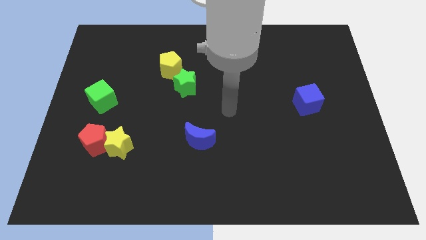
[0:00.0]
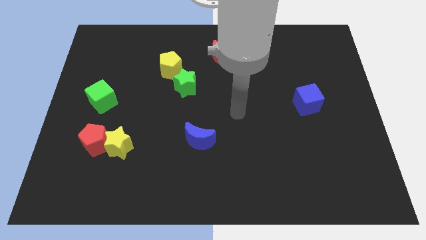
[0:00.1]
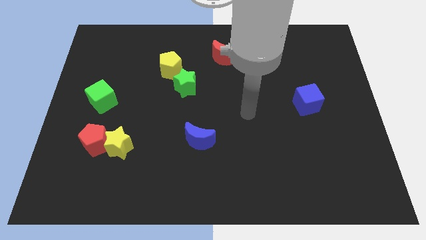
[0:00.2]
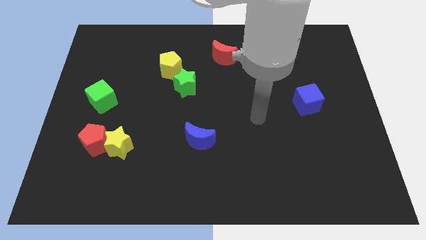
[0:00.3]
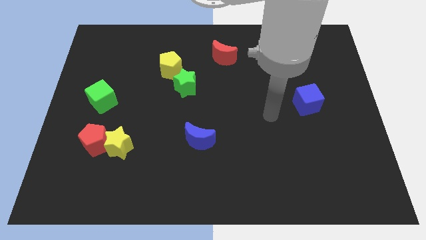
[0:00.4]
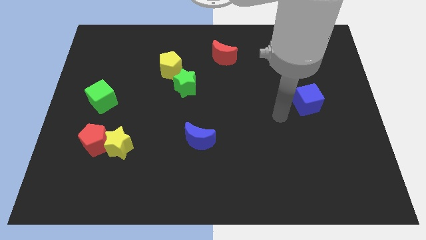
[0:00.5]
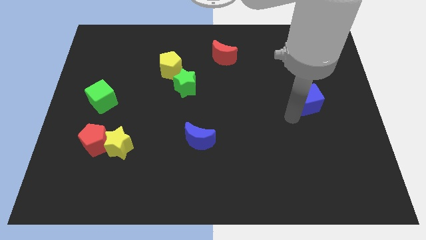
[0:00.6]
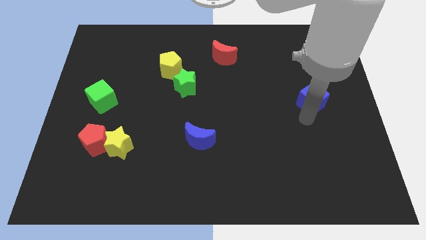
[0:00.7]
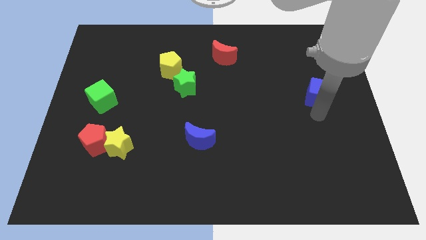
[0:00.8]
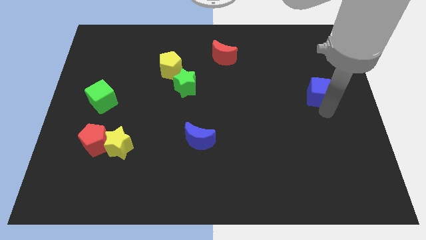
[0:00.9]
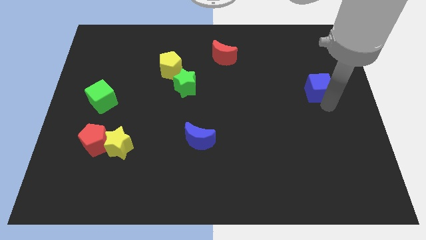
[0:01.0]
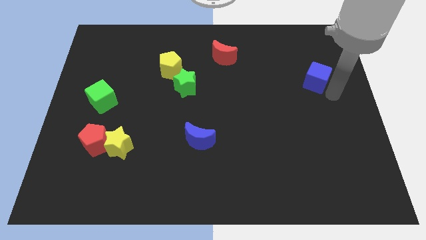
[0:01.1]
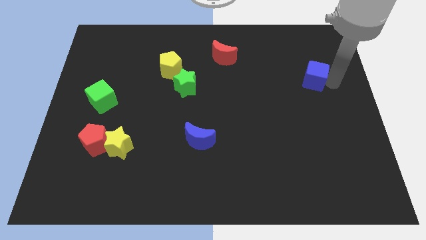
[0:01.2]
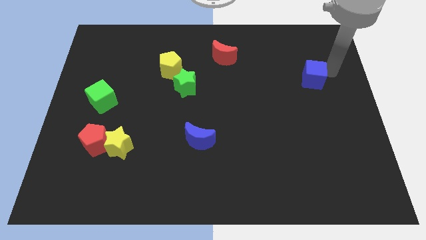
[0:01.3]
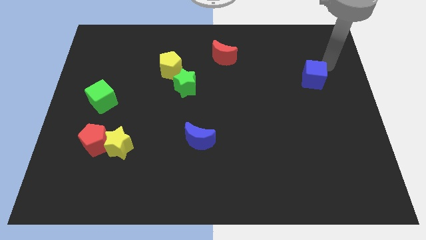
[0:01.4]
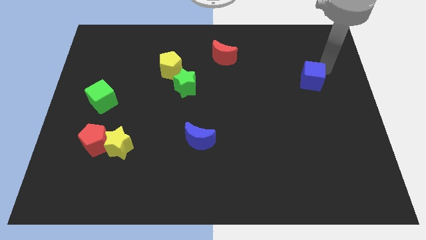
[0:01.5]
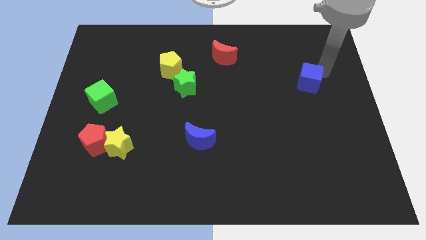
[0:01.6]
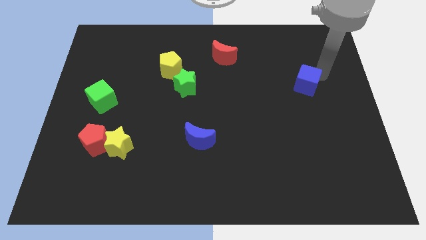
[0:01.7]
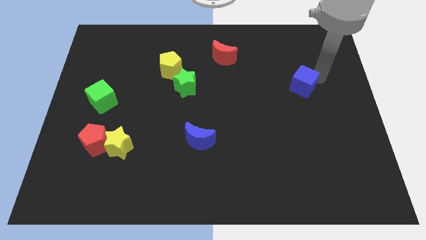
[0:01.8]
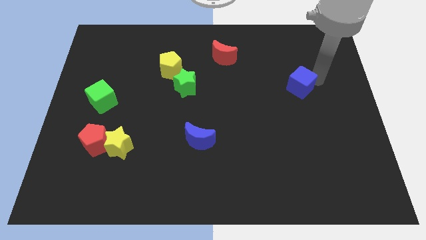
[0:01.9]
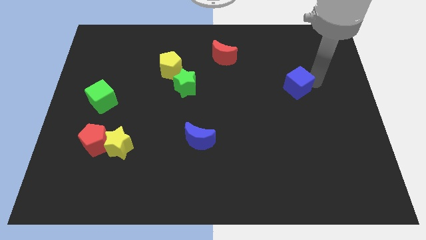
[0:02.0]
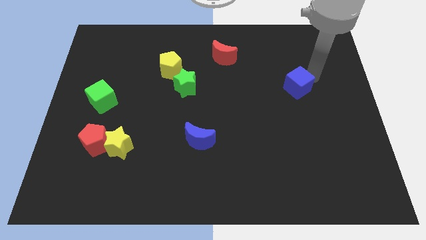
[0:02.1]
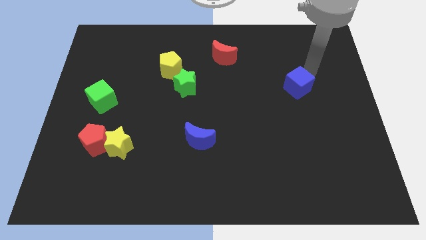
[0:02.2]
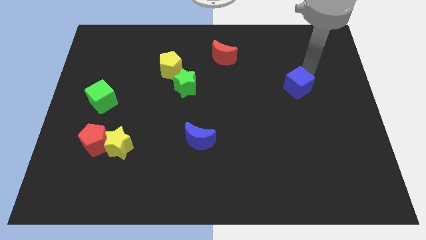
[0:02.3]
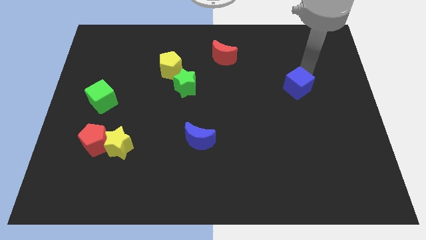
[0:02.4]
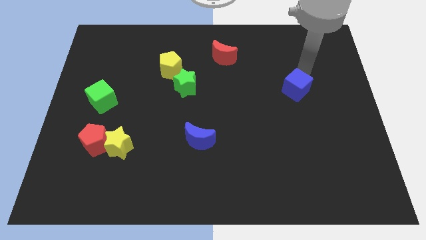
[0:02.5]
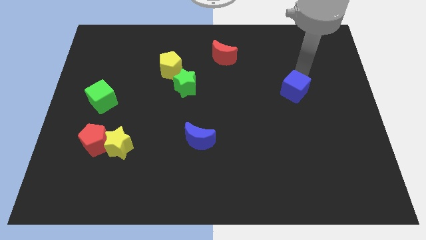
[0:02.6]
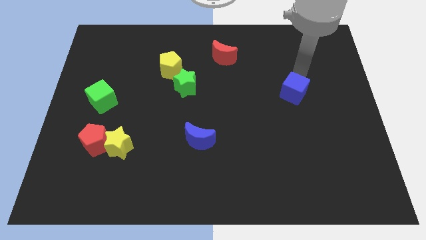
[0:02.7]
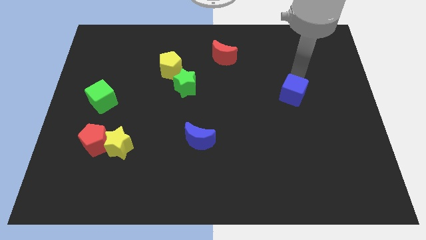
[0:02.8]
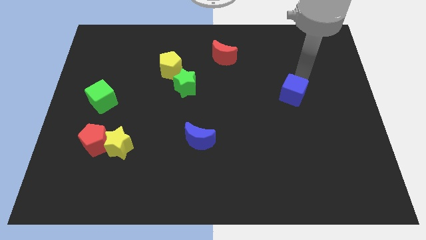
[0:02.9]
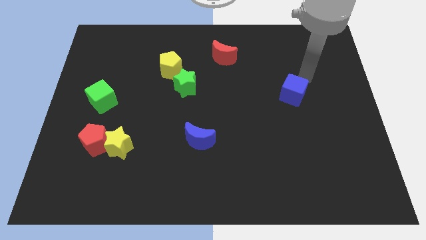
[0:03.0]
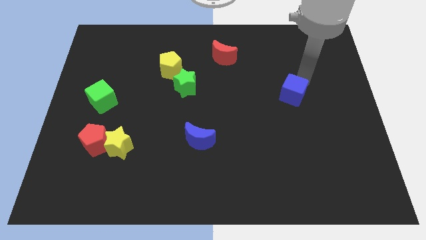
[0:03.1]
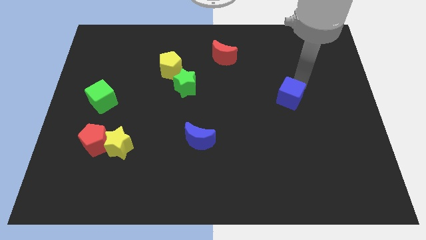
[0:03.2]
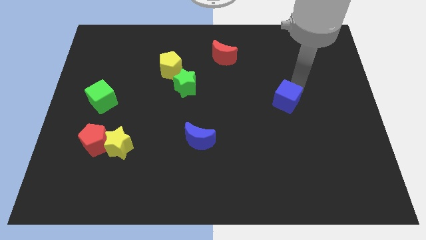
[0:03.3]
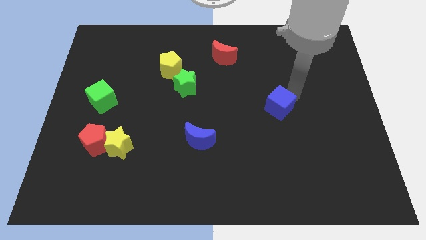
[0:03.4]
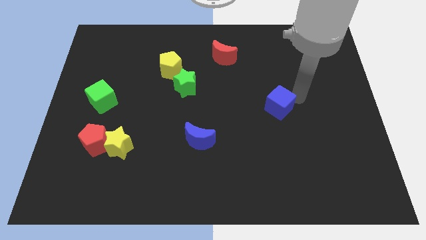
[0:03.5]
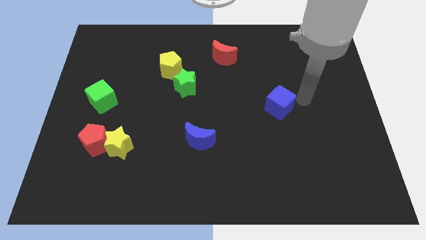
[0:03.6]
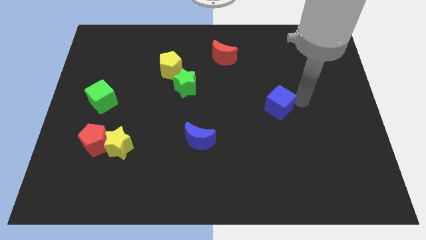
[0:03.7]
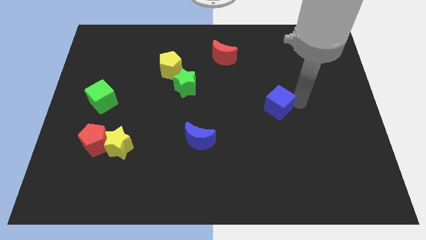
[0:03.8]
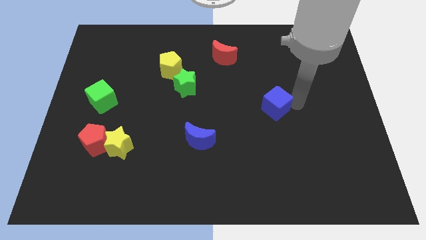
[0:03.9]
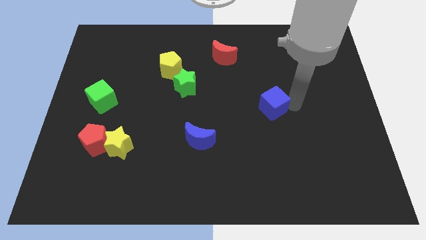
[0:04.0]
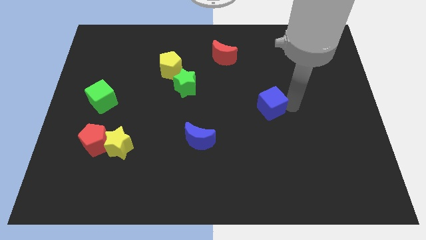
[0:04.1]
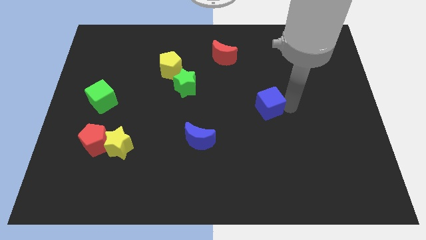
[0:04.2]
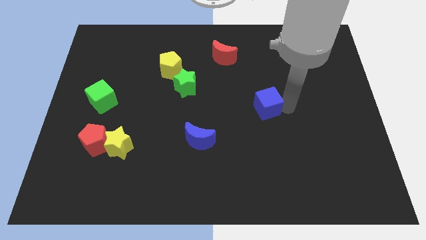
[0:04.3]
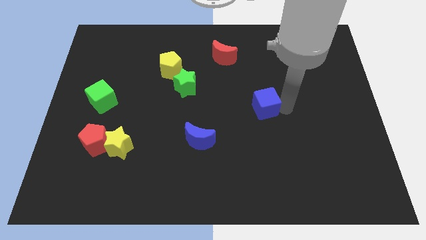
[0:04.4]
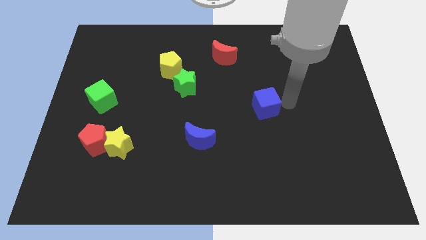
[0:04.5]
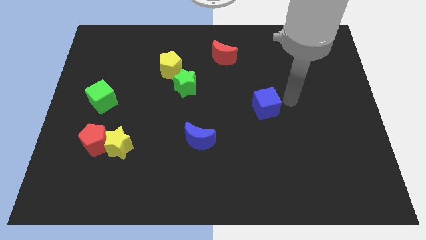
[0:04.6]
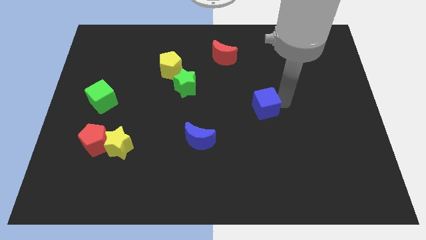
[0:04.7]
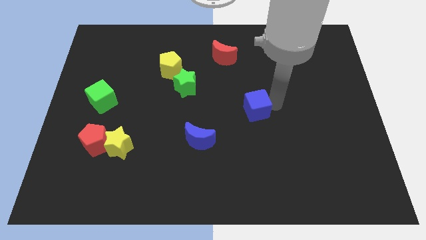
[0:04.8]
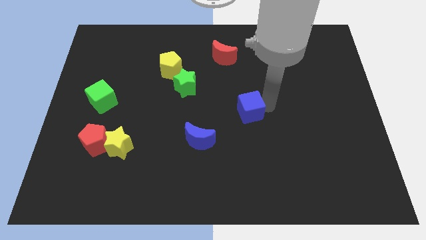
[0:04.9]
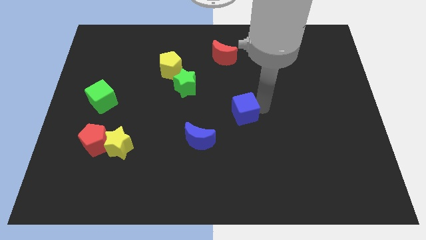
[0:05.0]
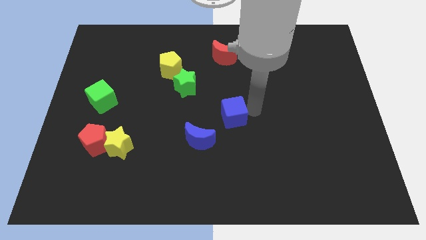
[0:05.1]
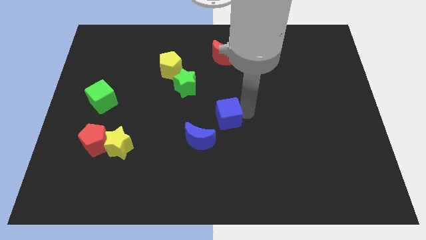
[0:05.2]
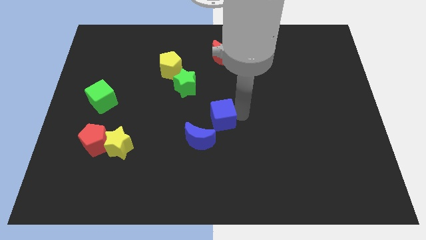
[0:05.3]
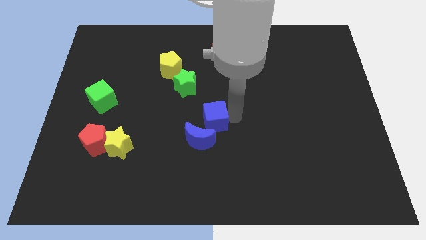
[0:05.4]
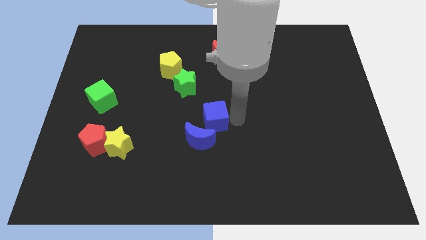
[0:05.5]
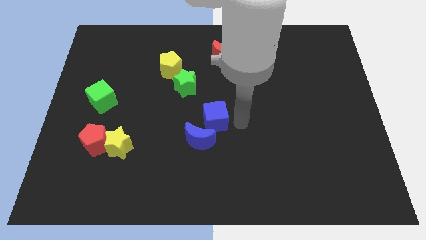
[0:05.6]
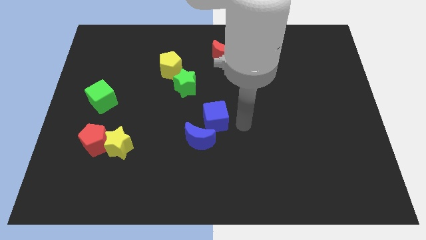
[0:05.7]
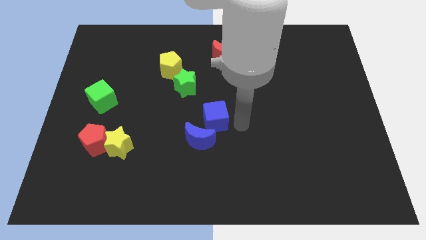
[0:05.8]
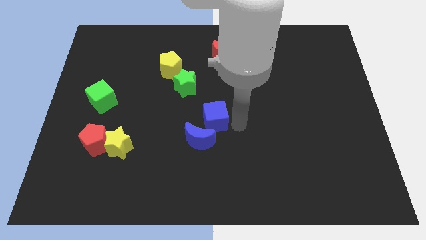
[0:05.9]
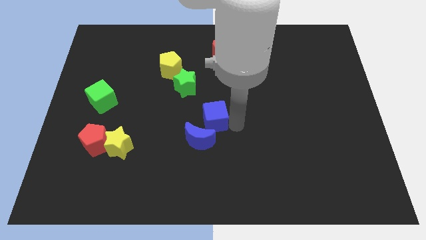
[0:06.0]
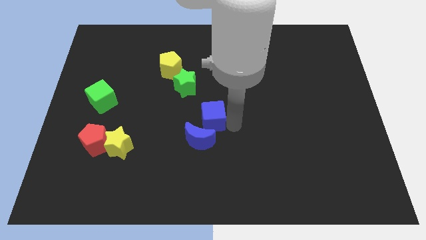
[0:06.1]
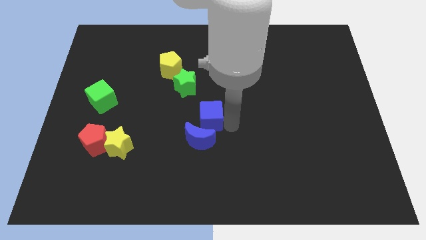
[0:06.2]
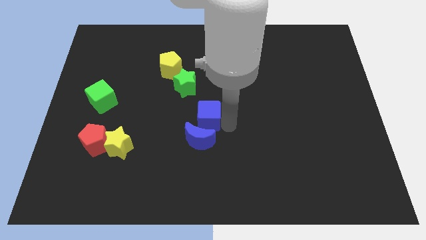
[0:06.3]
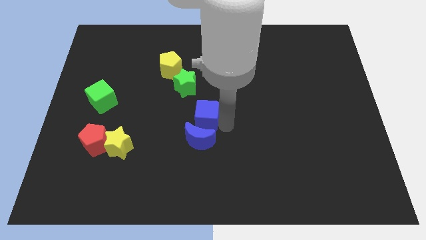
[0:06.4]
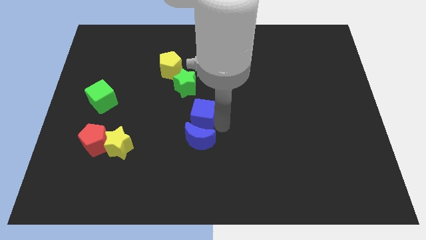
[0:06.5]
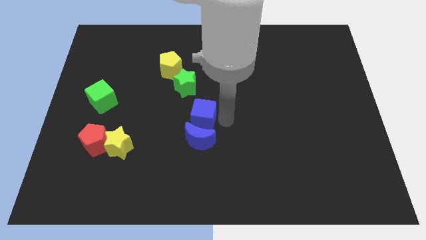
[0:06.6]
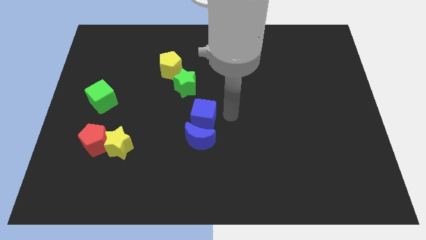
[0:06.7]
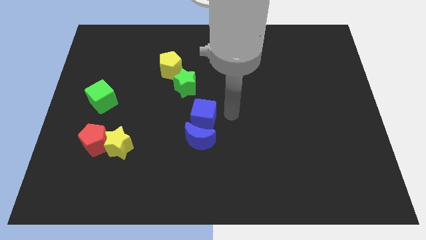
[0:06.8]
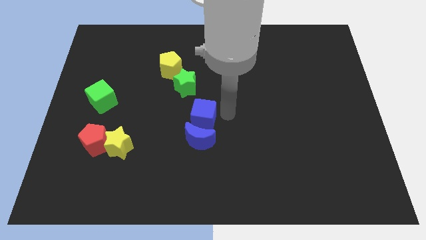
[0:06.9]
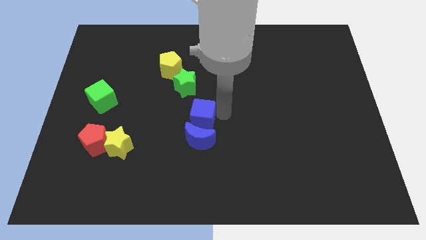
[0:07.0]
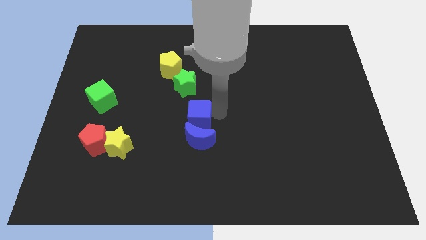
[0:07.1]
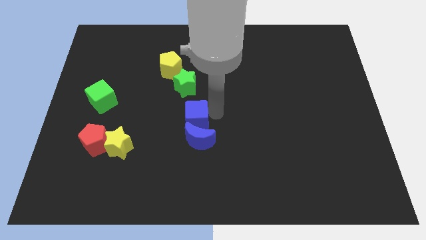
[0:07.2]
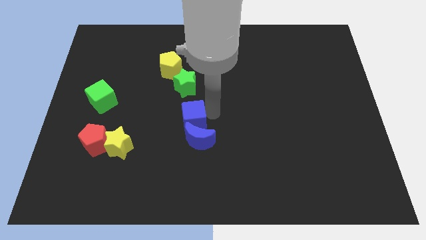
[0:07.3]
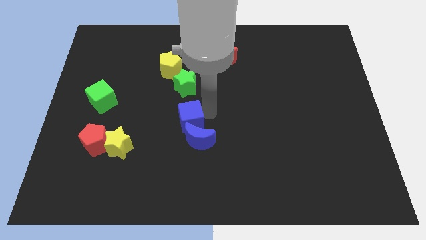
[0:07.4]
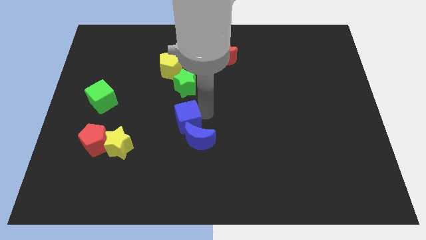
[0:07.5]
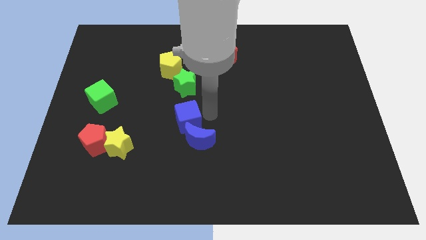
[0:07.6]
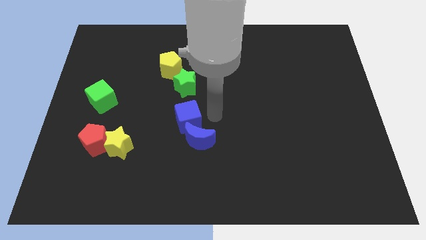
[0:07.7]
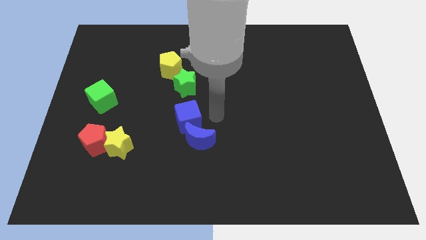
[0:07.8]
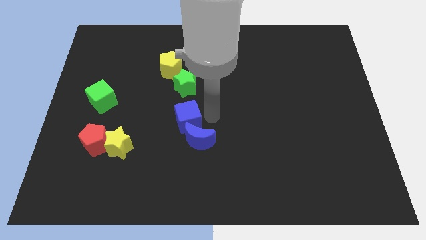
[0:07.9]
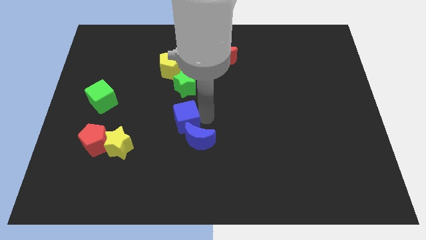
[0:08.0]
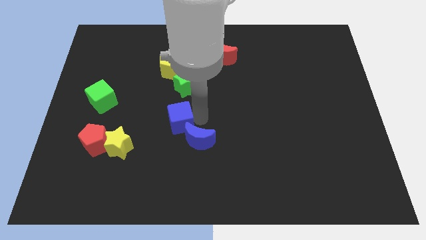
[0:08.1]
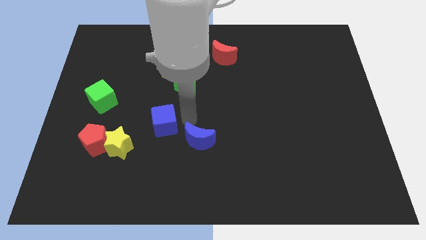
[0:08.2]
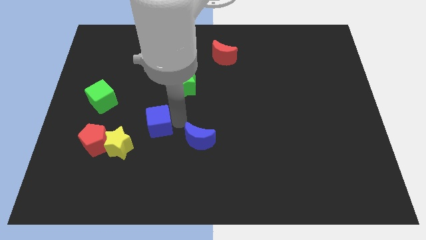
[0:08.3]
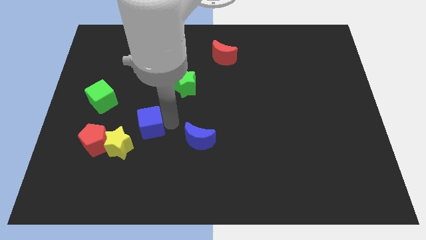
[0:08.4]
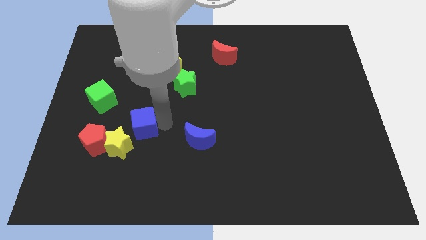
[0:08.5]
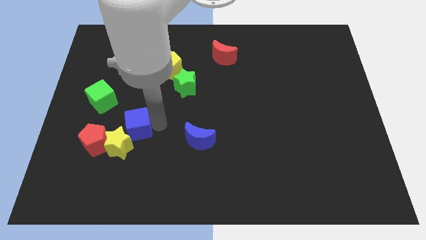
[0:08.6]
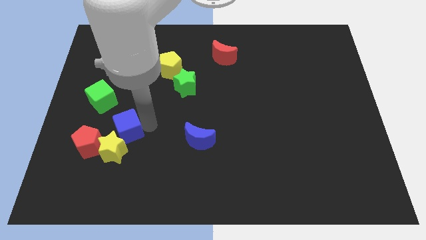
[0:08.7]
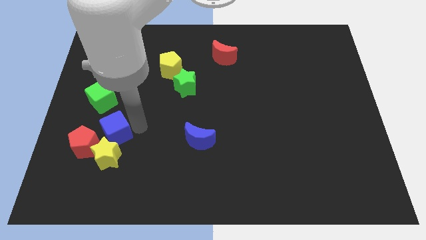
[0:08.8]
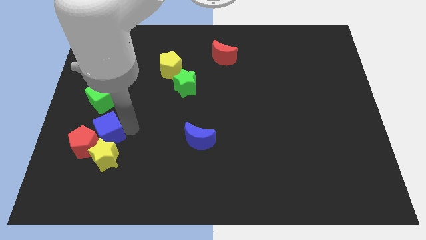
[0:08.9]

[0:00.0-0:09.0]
slide the blue cube to the red pentagon
